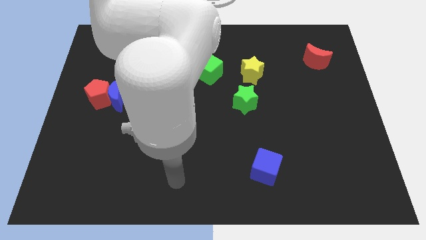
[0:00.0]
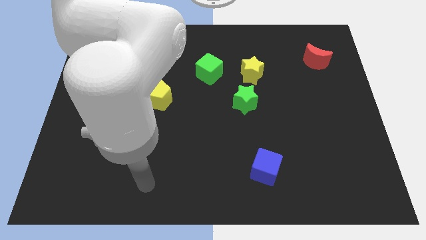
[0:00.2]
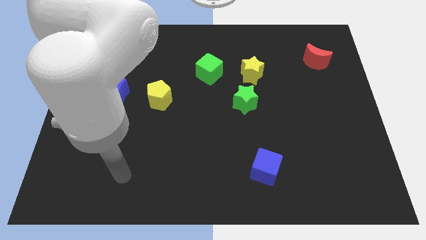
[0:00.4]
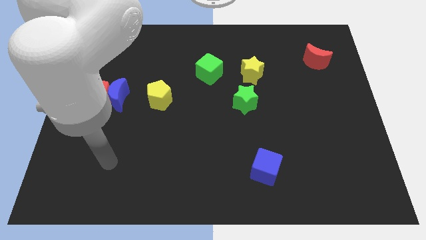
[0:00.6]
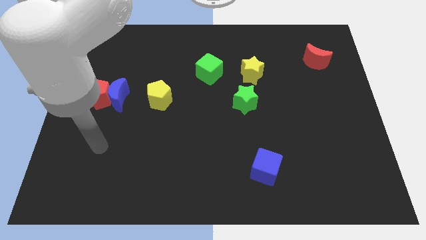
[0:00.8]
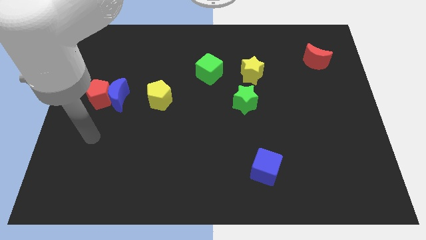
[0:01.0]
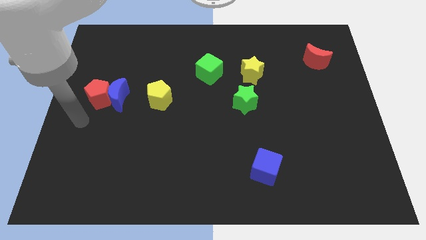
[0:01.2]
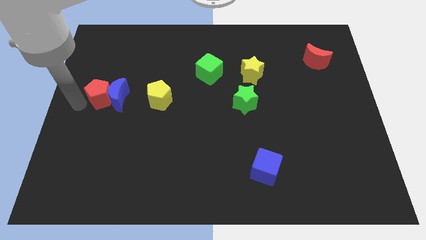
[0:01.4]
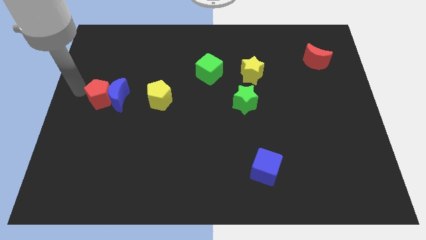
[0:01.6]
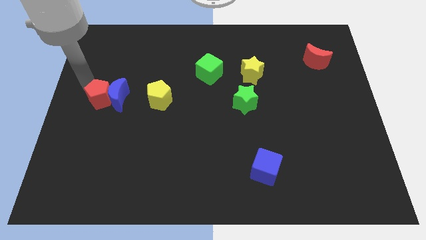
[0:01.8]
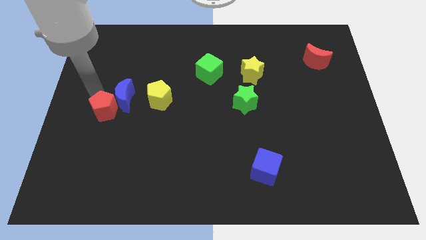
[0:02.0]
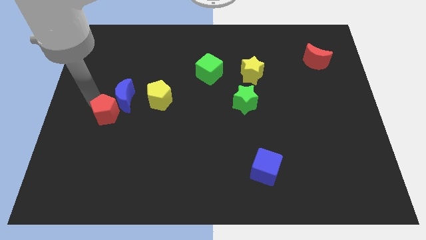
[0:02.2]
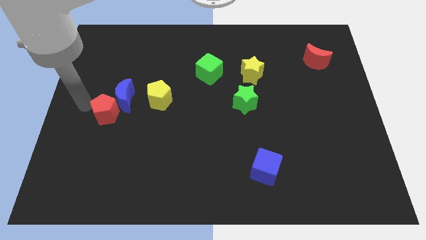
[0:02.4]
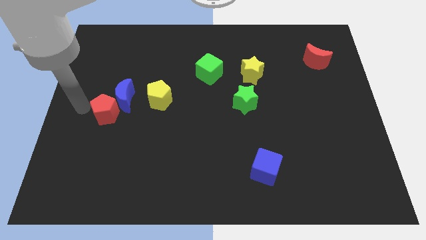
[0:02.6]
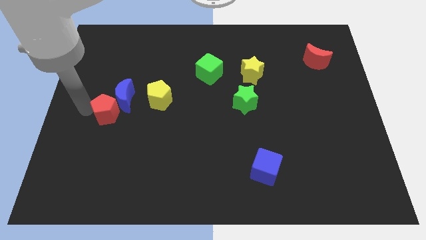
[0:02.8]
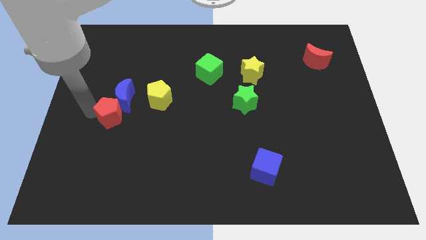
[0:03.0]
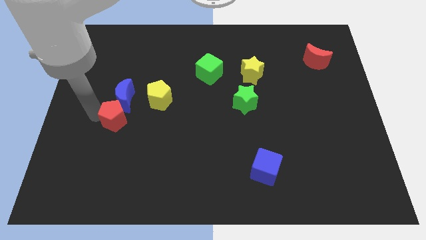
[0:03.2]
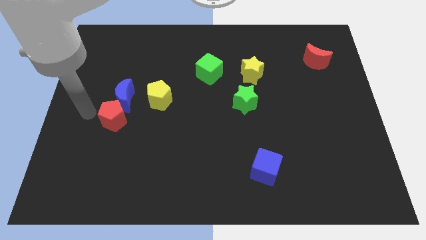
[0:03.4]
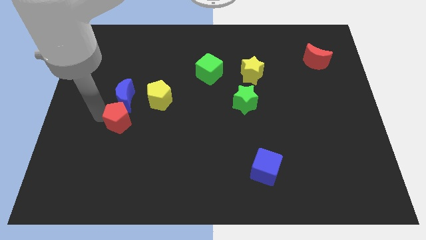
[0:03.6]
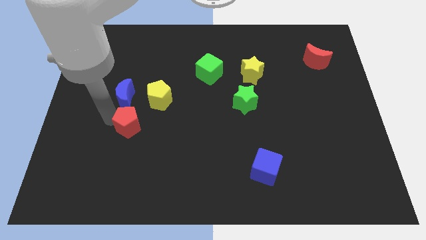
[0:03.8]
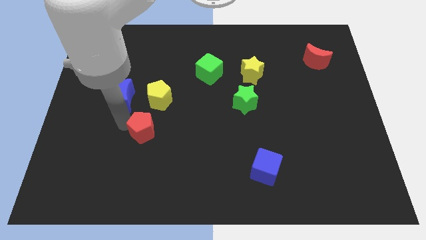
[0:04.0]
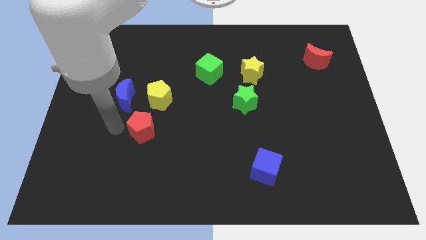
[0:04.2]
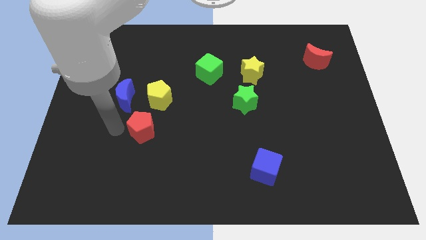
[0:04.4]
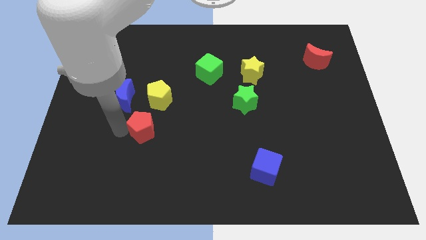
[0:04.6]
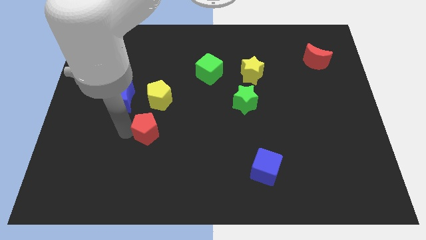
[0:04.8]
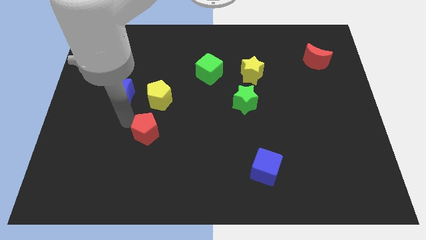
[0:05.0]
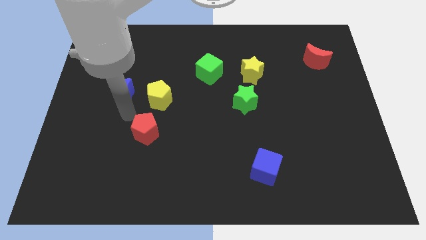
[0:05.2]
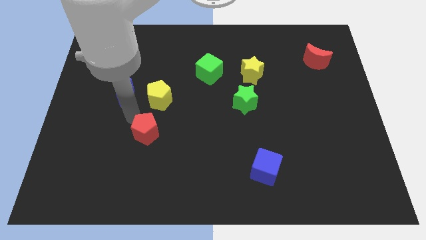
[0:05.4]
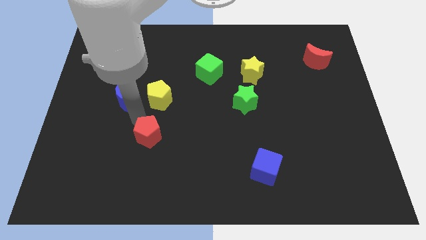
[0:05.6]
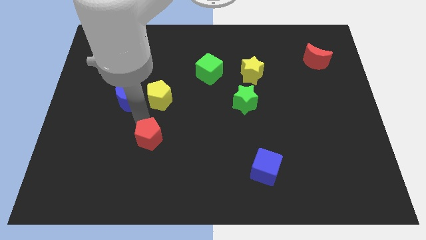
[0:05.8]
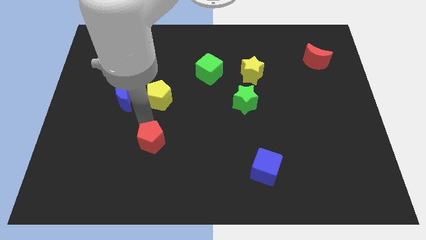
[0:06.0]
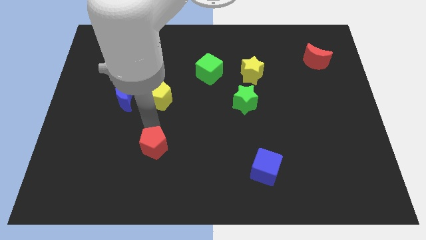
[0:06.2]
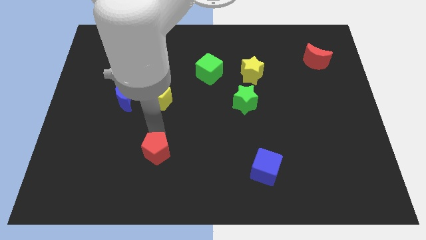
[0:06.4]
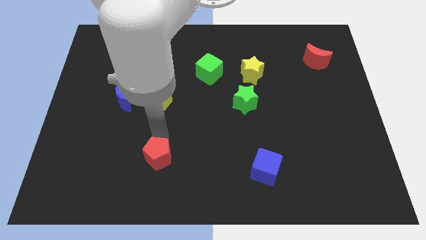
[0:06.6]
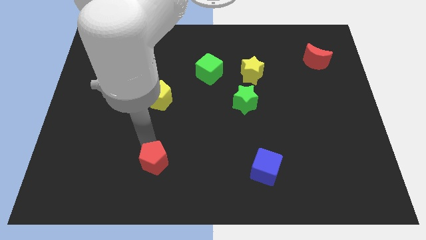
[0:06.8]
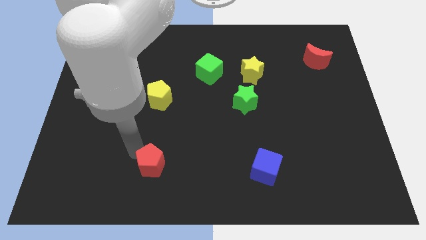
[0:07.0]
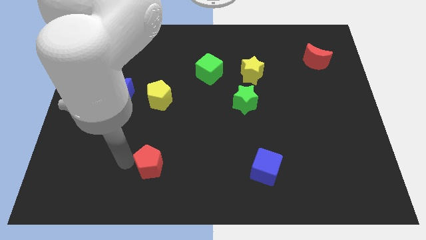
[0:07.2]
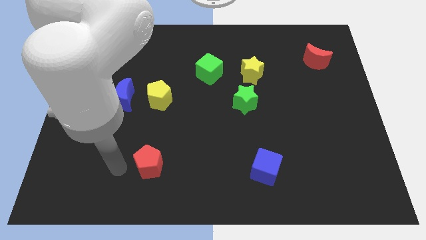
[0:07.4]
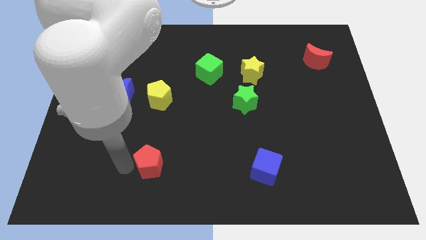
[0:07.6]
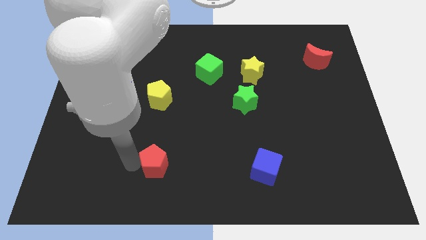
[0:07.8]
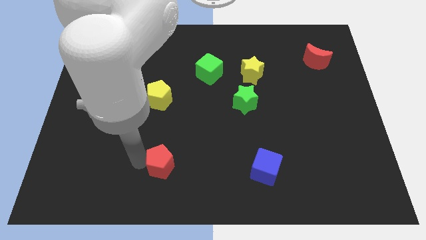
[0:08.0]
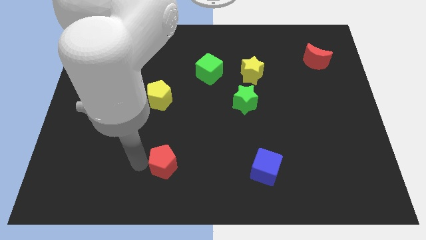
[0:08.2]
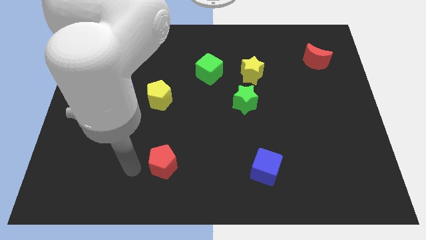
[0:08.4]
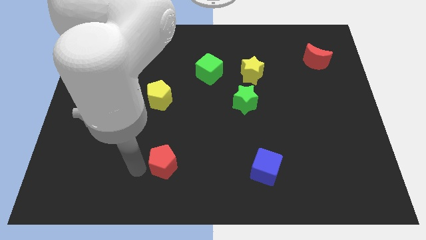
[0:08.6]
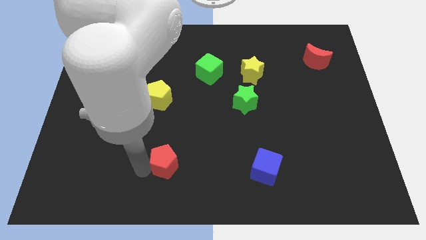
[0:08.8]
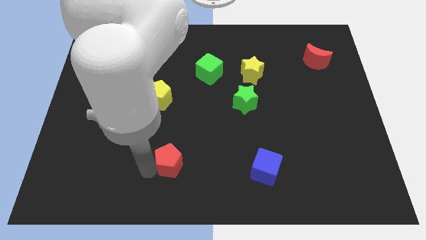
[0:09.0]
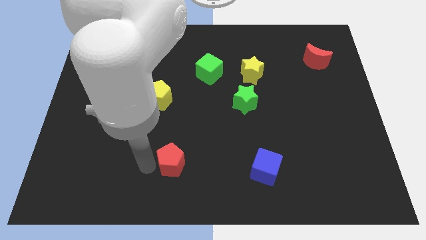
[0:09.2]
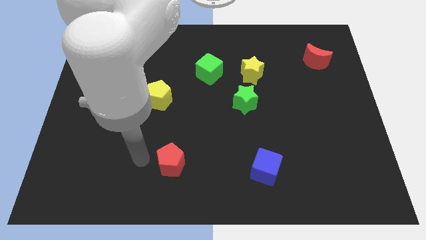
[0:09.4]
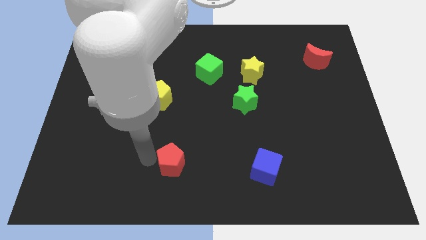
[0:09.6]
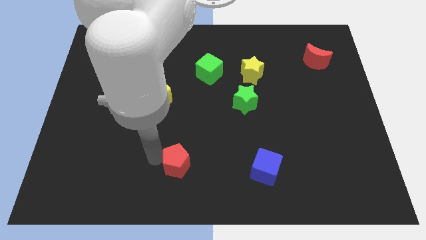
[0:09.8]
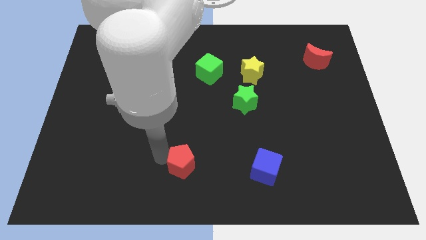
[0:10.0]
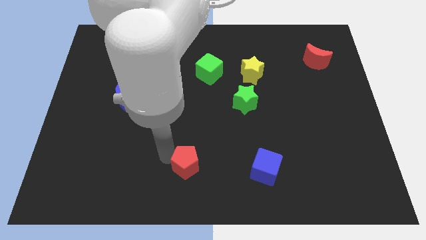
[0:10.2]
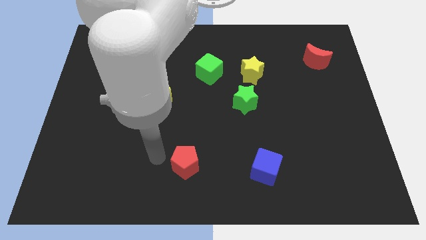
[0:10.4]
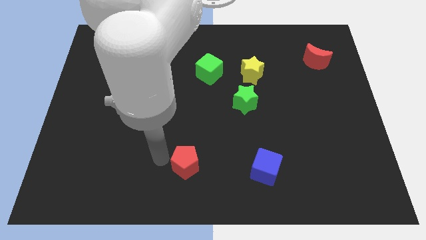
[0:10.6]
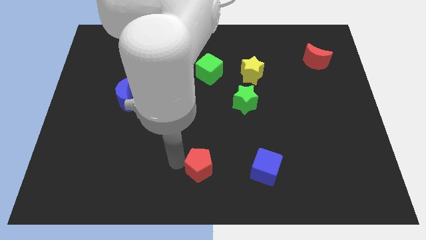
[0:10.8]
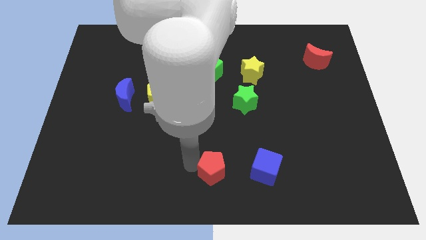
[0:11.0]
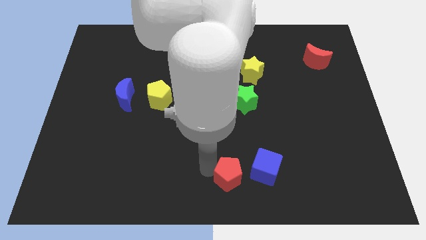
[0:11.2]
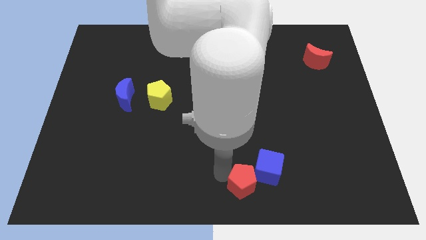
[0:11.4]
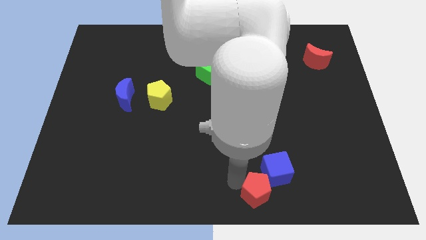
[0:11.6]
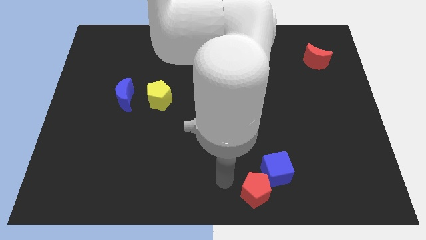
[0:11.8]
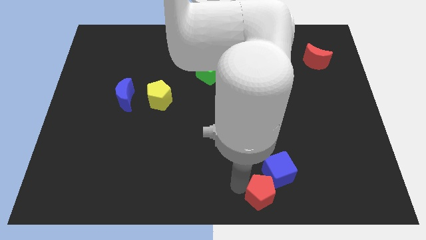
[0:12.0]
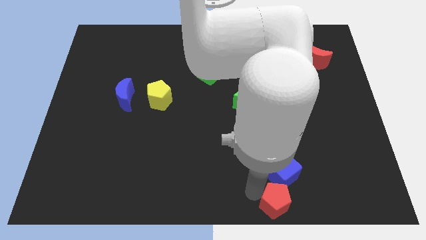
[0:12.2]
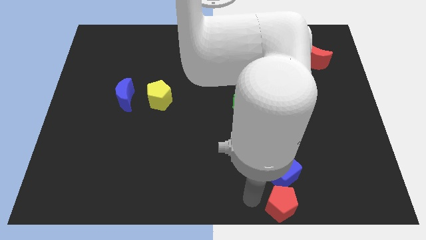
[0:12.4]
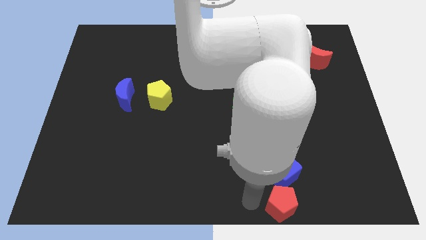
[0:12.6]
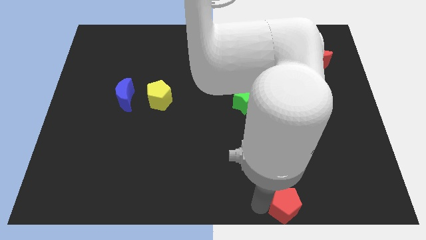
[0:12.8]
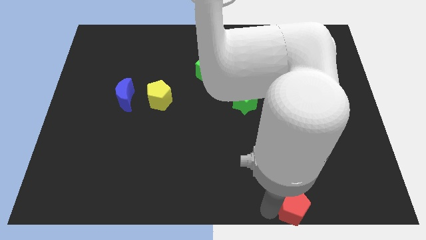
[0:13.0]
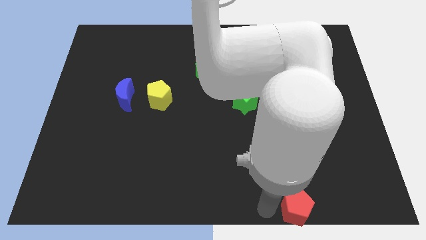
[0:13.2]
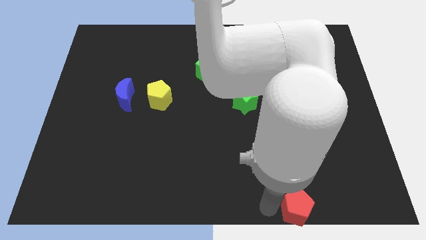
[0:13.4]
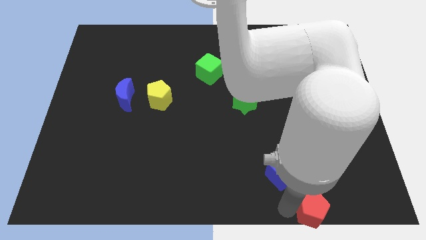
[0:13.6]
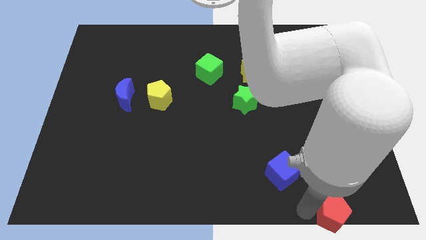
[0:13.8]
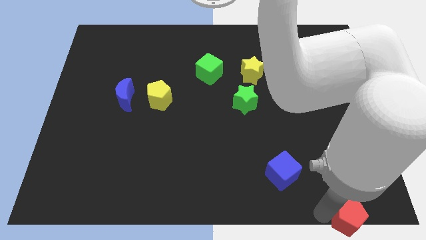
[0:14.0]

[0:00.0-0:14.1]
put the red pentagon to the bottom right

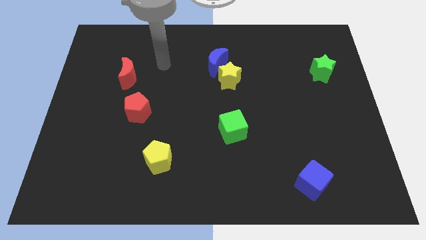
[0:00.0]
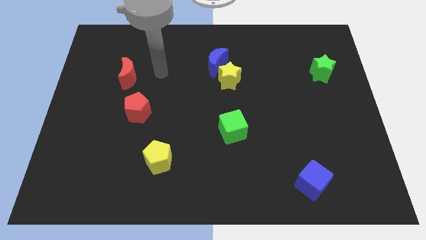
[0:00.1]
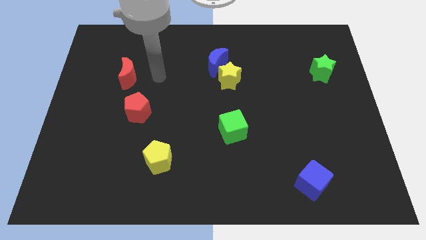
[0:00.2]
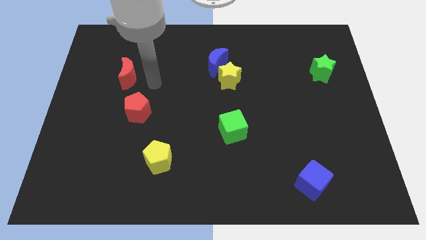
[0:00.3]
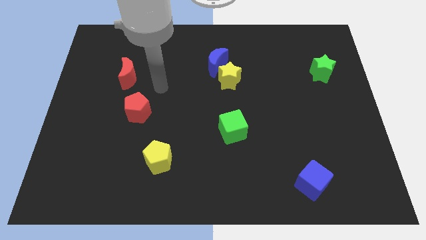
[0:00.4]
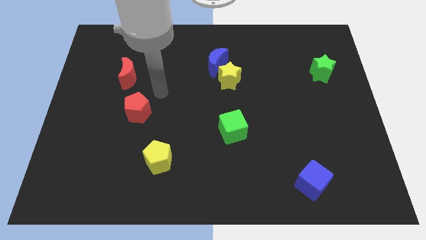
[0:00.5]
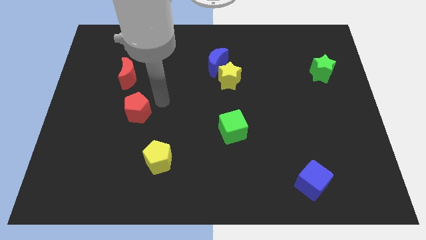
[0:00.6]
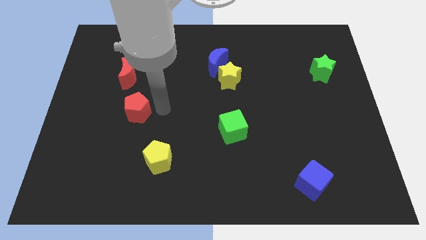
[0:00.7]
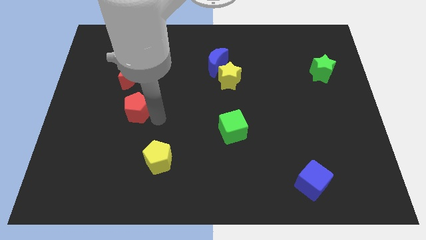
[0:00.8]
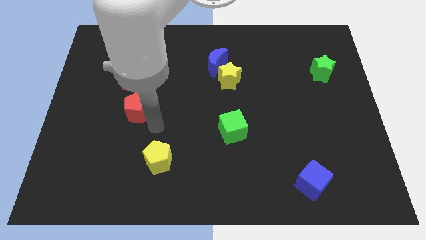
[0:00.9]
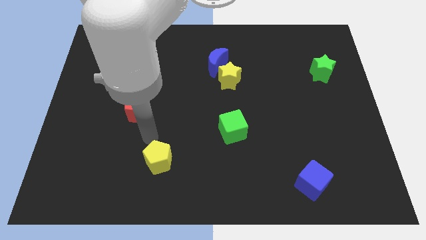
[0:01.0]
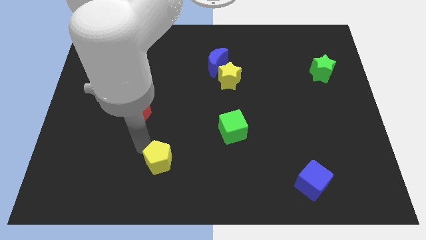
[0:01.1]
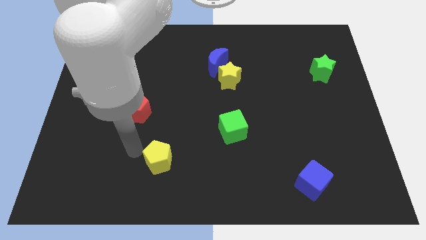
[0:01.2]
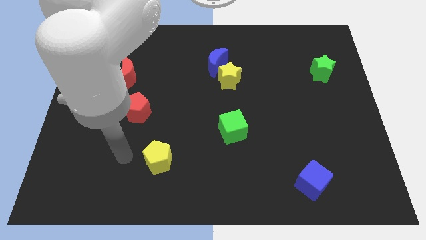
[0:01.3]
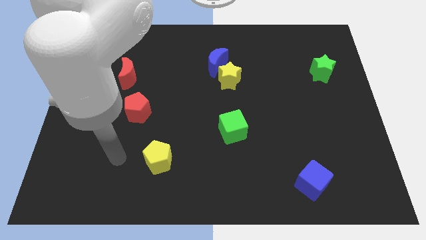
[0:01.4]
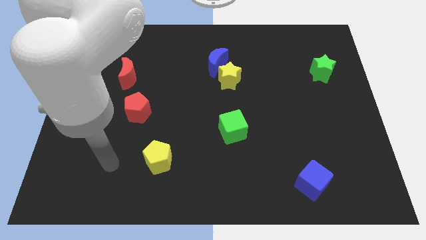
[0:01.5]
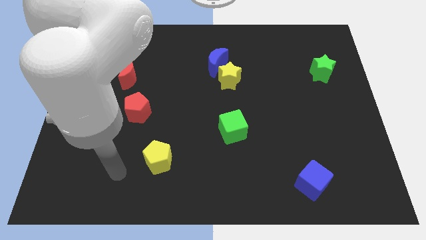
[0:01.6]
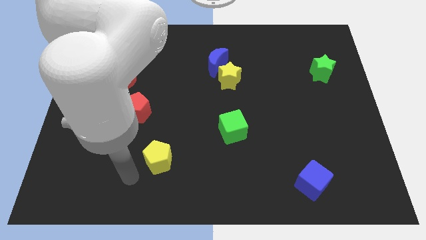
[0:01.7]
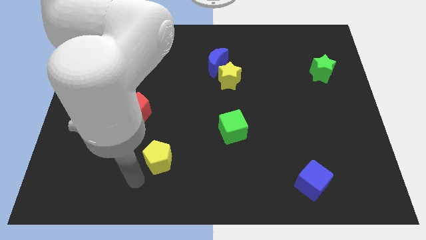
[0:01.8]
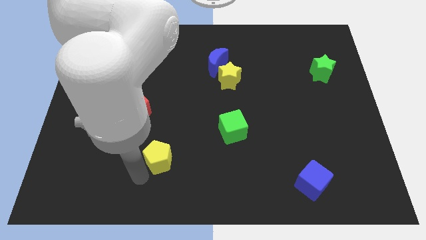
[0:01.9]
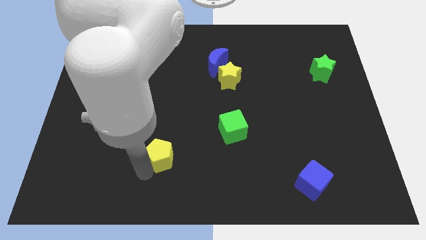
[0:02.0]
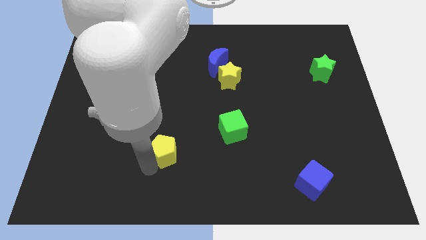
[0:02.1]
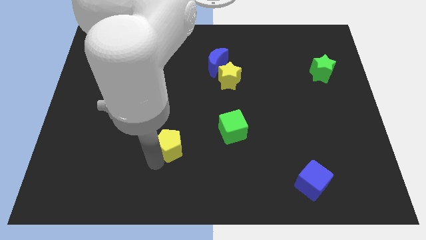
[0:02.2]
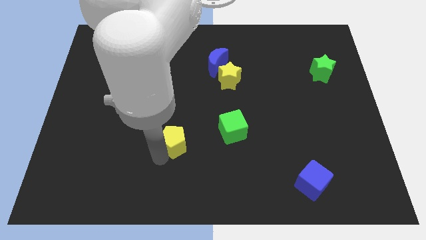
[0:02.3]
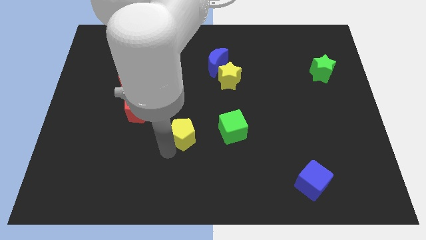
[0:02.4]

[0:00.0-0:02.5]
move the yellow pentagon to the middle of the board
